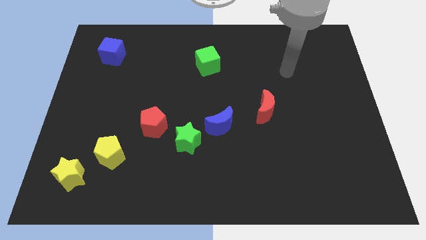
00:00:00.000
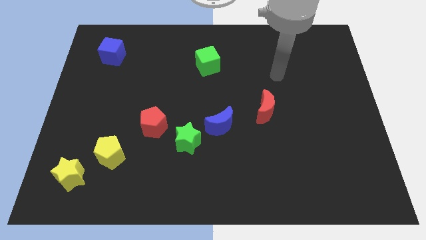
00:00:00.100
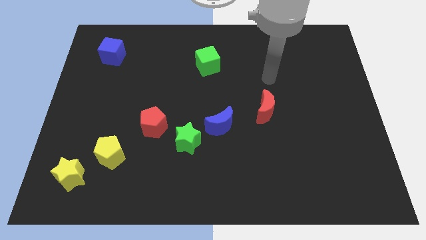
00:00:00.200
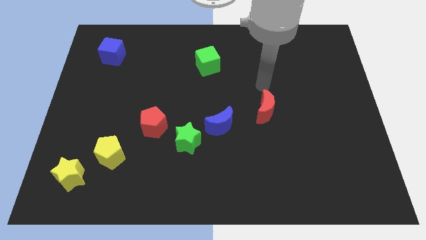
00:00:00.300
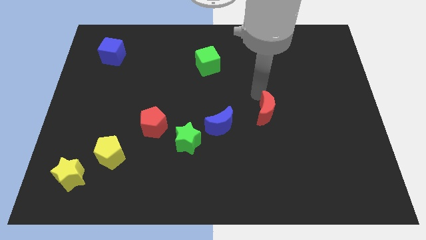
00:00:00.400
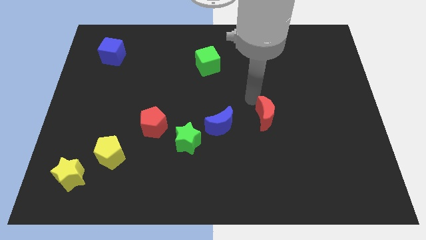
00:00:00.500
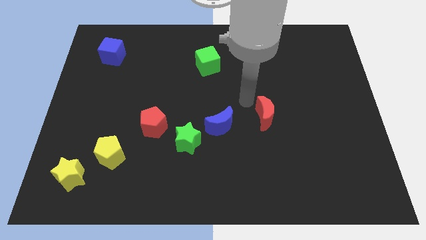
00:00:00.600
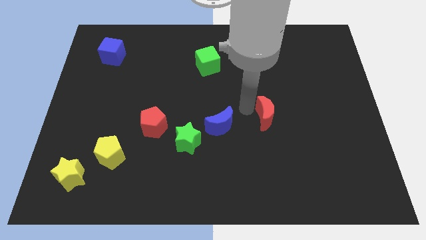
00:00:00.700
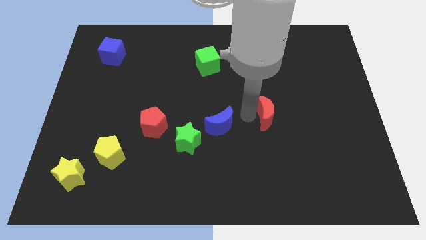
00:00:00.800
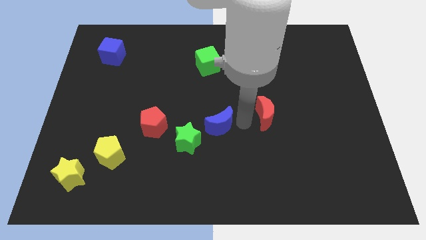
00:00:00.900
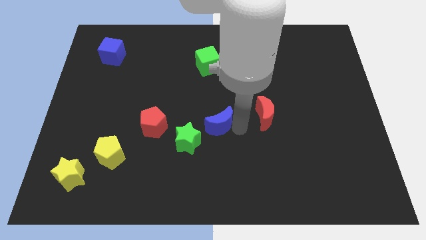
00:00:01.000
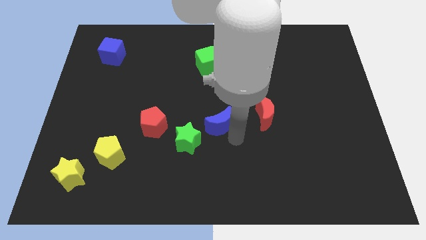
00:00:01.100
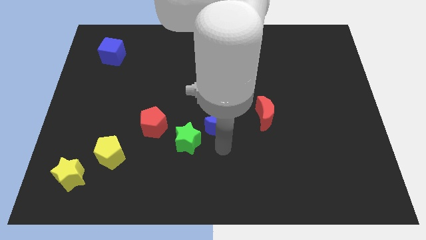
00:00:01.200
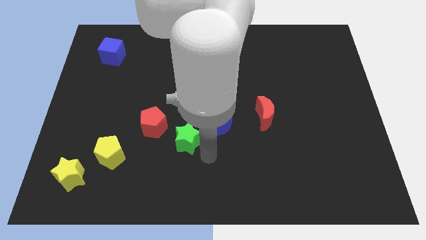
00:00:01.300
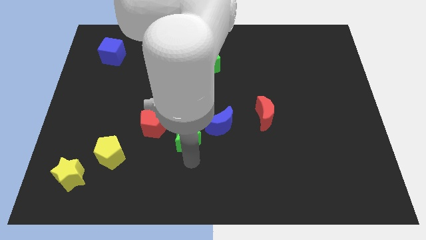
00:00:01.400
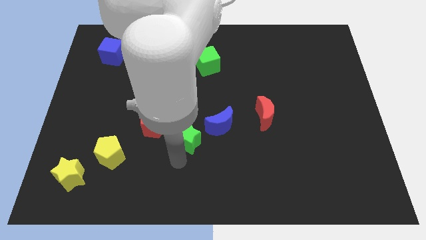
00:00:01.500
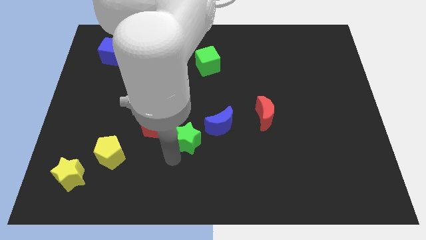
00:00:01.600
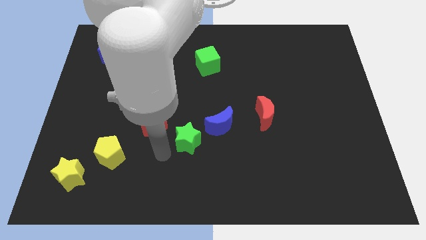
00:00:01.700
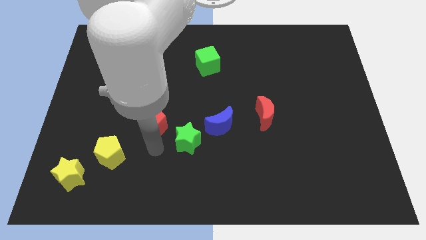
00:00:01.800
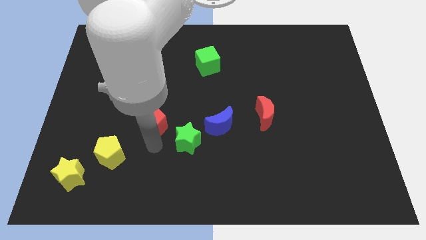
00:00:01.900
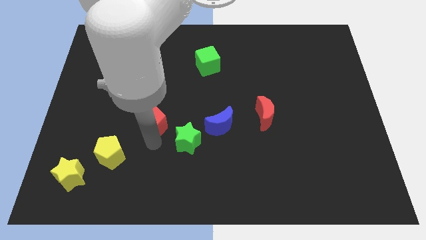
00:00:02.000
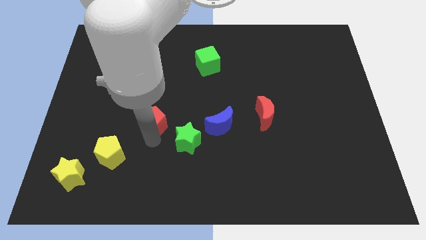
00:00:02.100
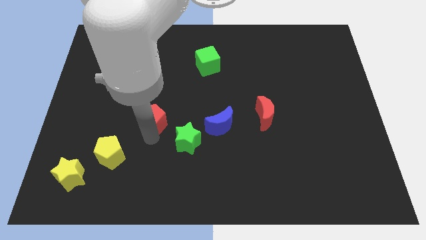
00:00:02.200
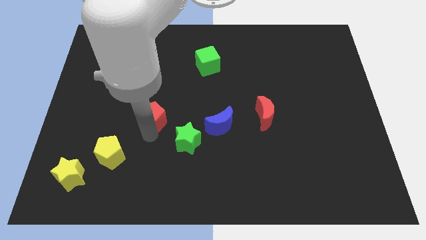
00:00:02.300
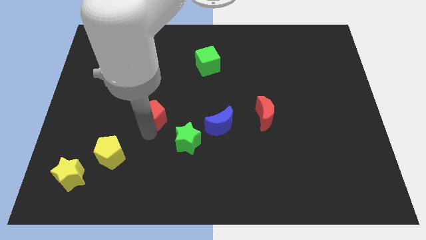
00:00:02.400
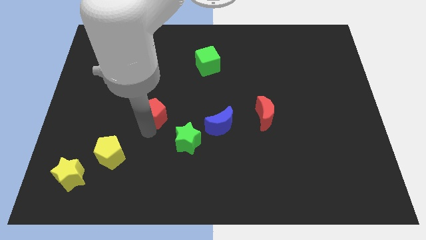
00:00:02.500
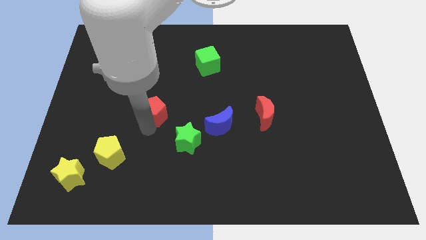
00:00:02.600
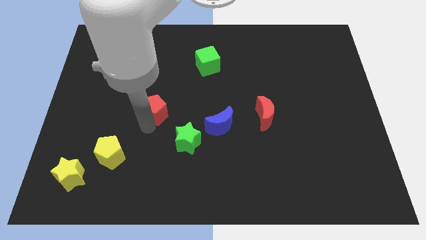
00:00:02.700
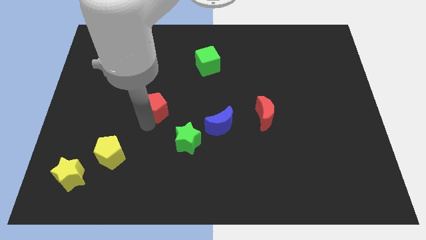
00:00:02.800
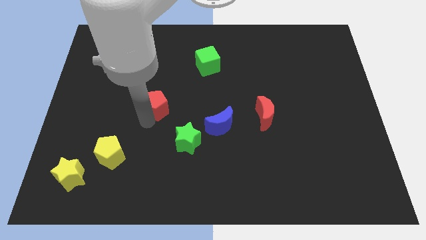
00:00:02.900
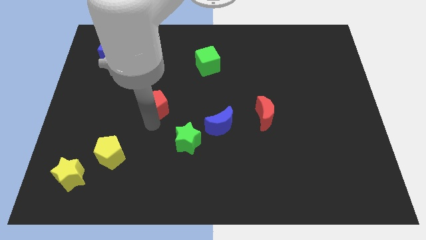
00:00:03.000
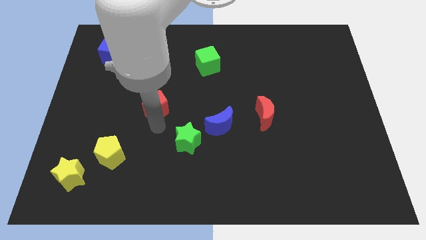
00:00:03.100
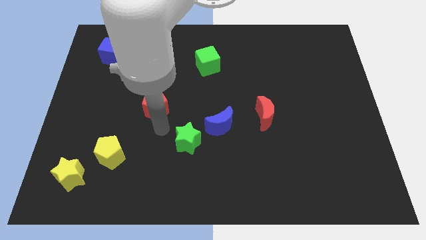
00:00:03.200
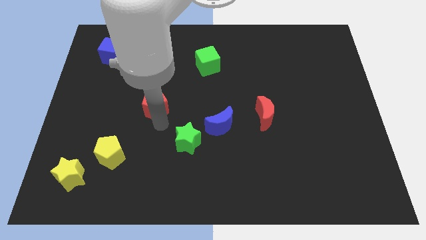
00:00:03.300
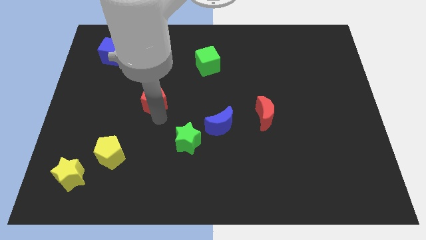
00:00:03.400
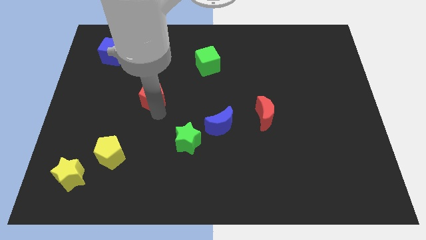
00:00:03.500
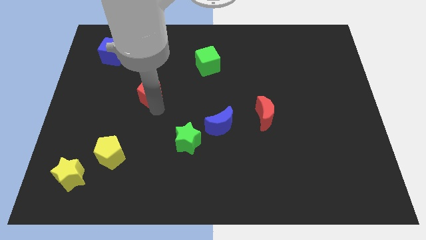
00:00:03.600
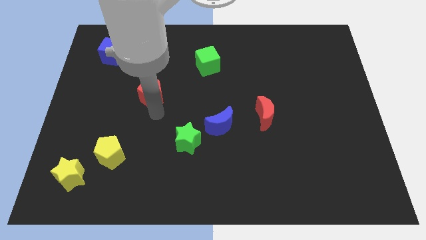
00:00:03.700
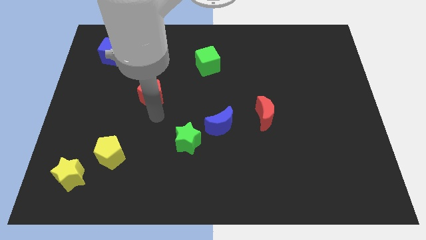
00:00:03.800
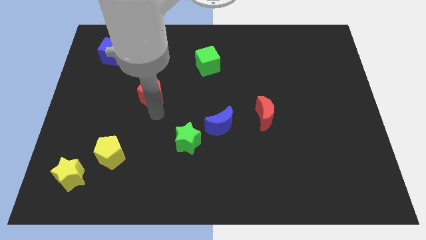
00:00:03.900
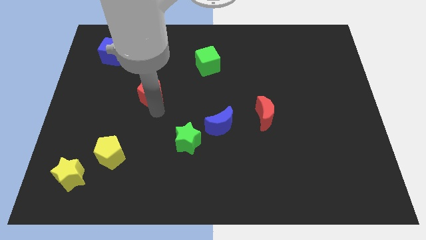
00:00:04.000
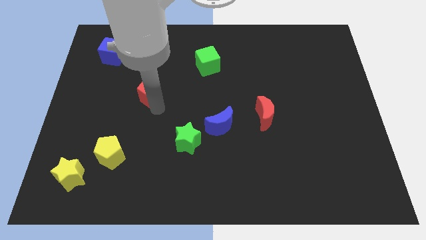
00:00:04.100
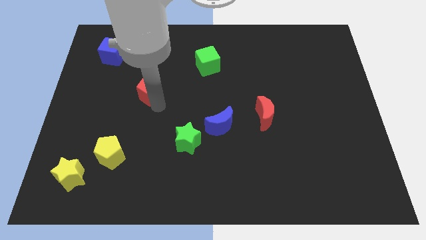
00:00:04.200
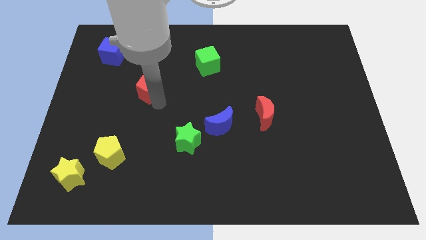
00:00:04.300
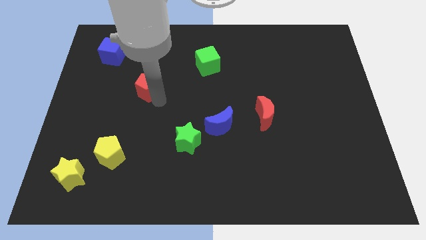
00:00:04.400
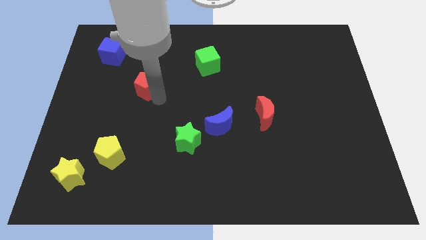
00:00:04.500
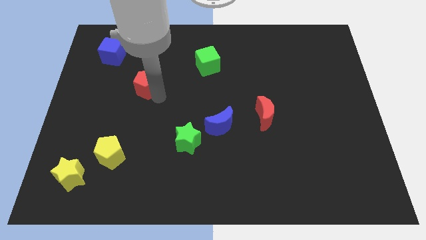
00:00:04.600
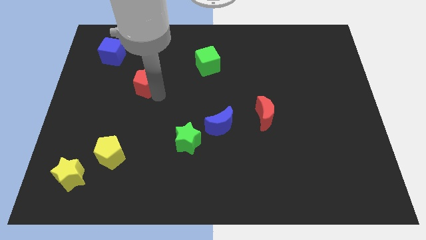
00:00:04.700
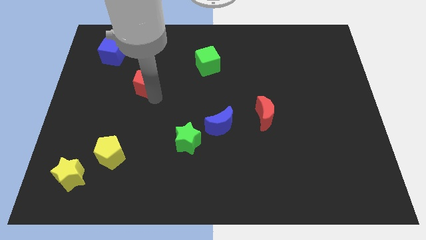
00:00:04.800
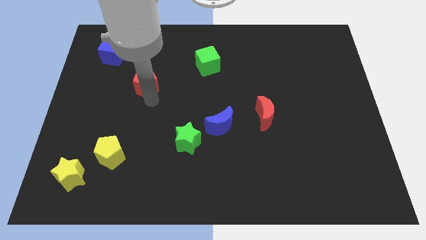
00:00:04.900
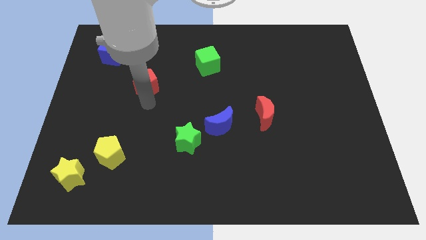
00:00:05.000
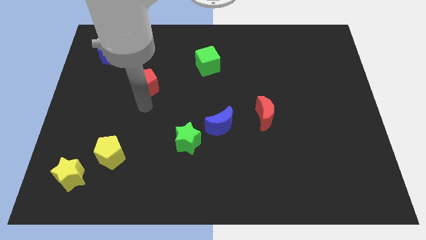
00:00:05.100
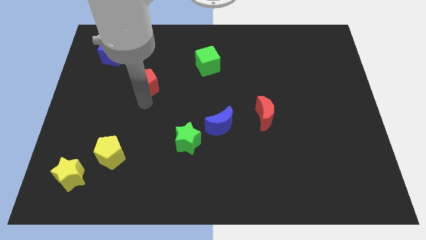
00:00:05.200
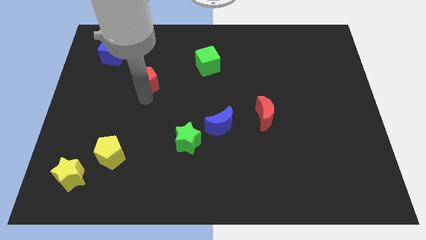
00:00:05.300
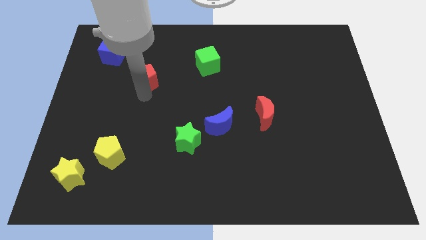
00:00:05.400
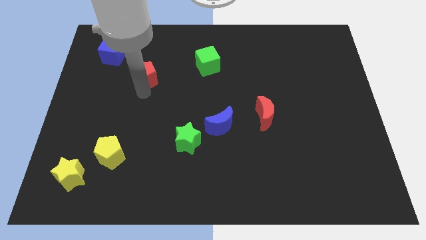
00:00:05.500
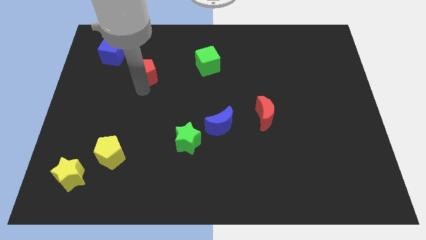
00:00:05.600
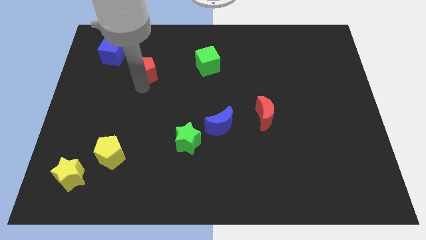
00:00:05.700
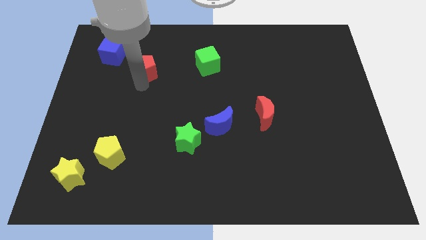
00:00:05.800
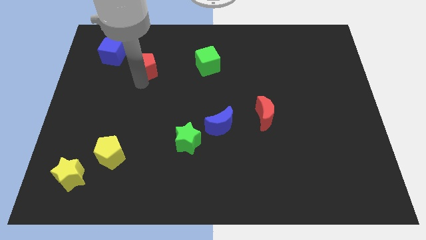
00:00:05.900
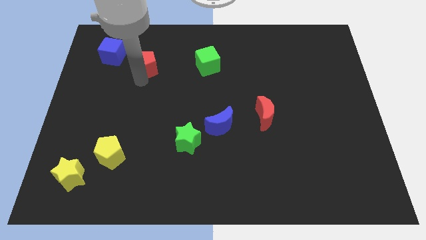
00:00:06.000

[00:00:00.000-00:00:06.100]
slide the red pentagon to the right of the blue cube

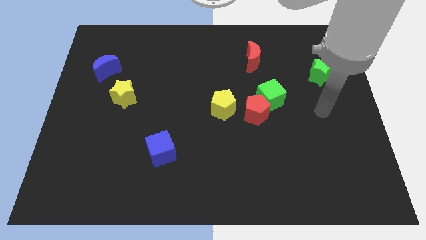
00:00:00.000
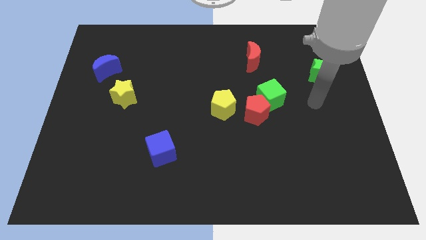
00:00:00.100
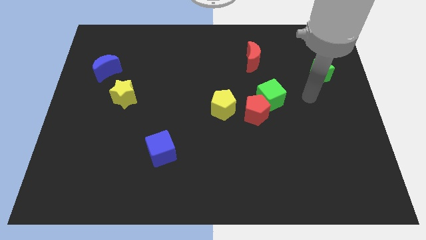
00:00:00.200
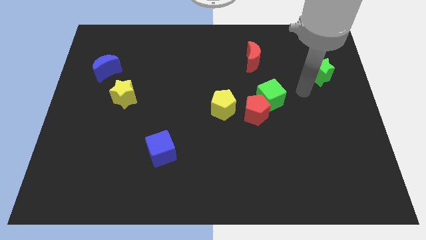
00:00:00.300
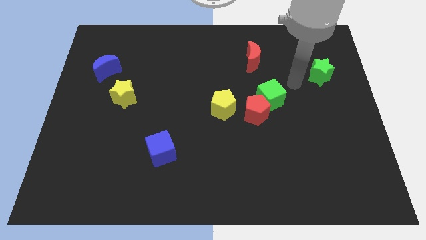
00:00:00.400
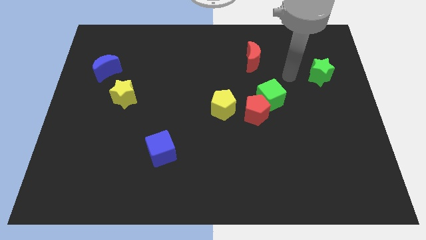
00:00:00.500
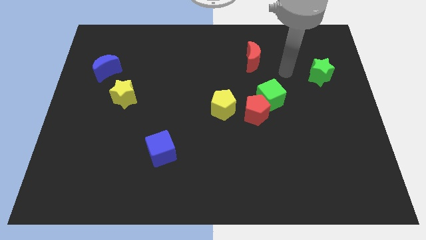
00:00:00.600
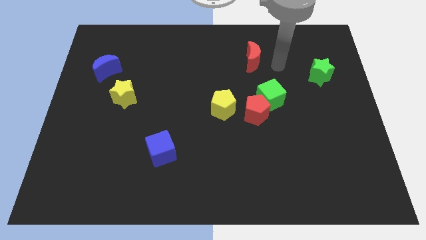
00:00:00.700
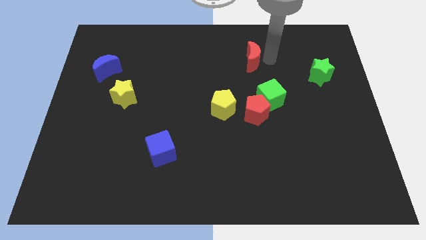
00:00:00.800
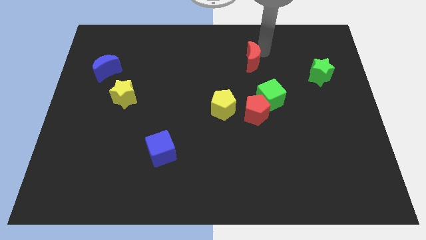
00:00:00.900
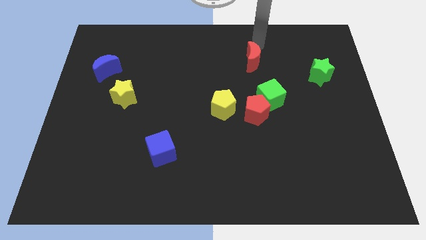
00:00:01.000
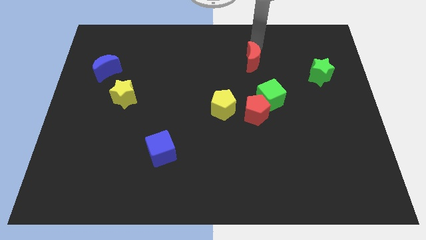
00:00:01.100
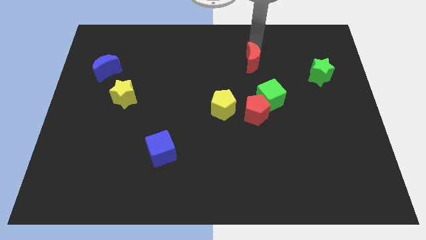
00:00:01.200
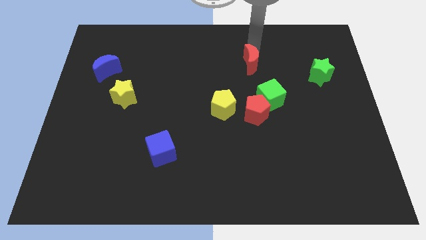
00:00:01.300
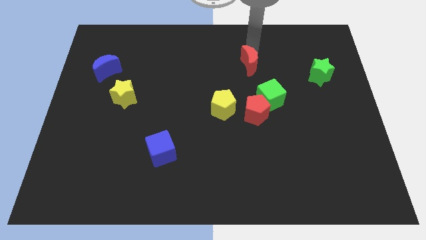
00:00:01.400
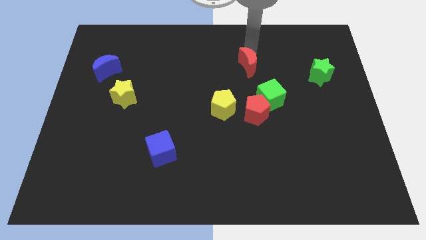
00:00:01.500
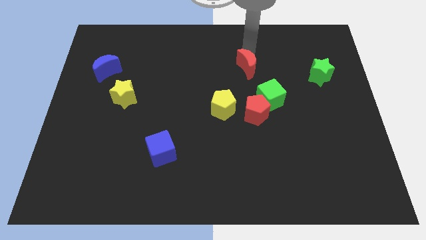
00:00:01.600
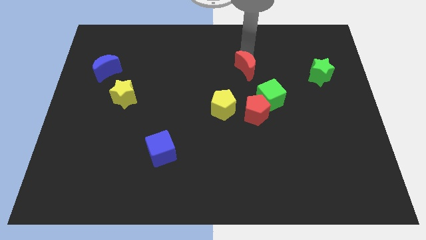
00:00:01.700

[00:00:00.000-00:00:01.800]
move the red moon diagonally up and to the left of the green cube
